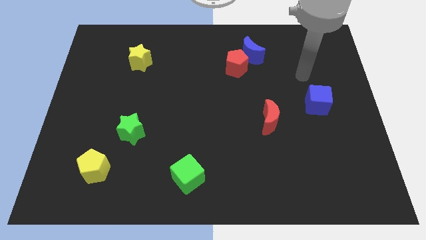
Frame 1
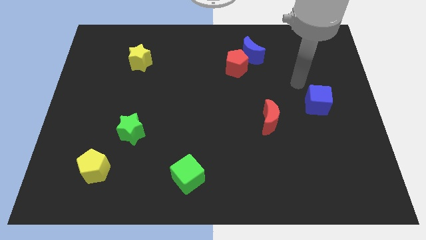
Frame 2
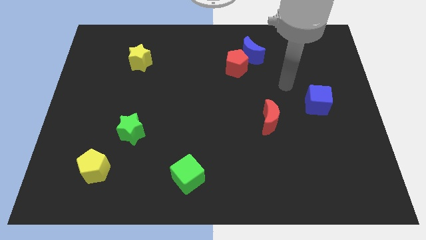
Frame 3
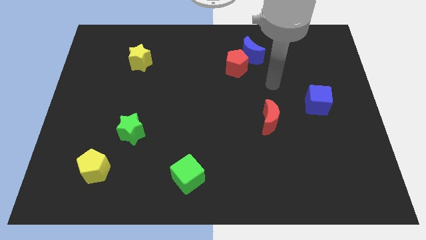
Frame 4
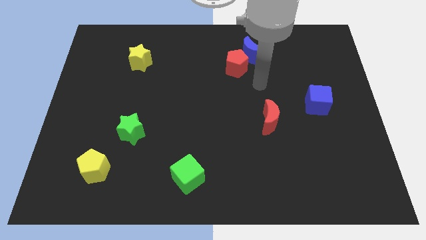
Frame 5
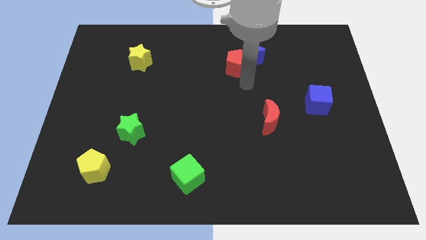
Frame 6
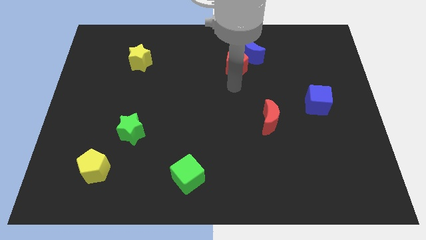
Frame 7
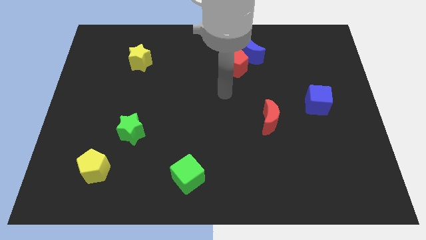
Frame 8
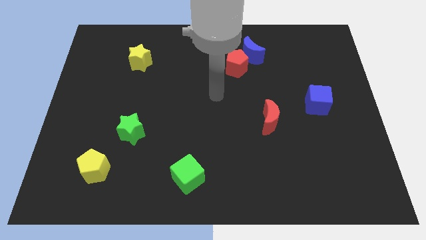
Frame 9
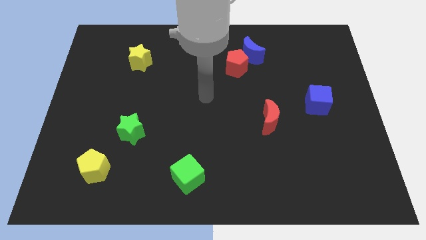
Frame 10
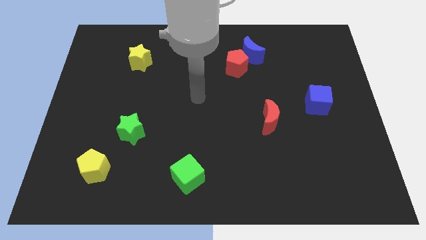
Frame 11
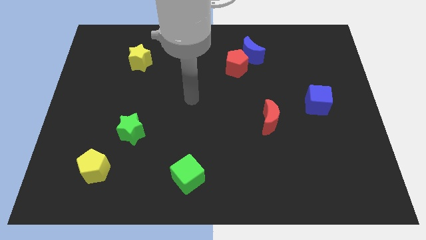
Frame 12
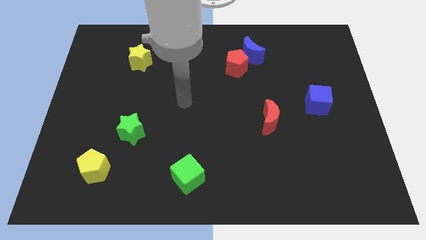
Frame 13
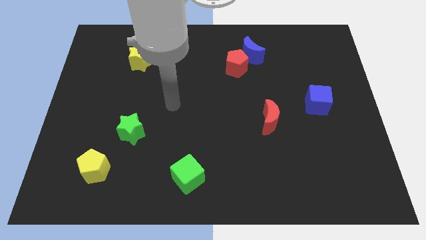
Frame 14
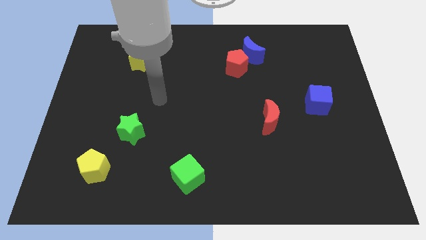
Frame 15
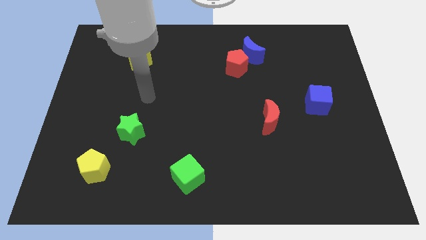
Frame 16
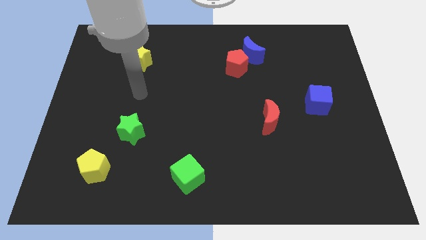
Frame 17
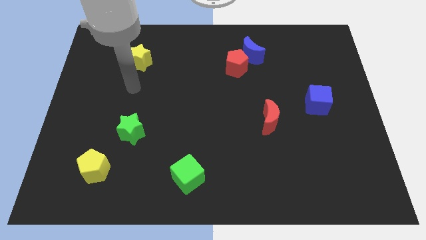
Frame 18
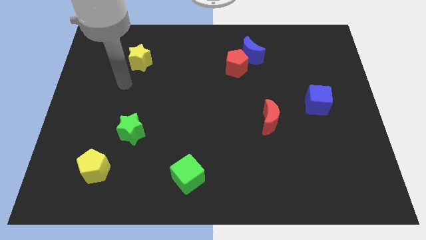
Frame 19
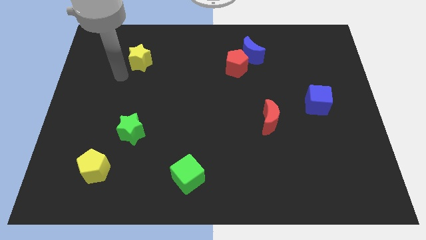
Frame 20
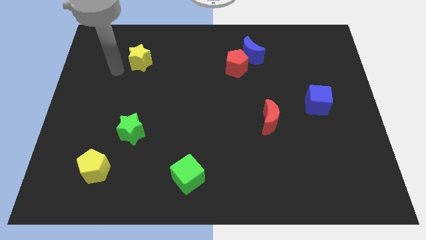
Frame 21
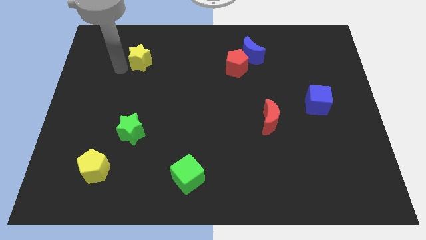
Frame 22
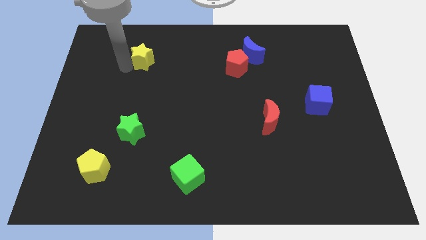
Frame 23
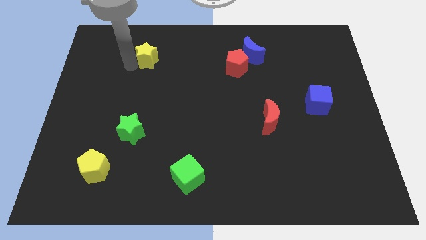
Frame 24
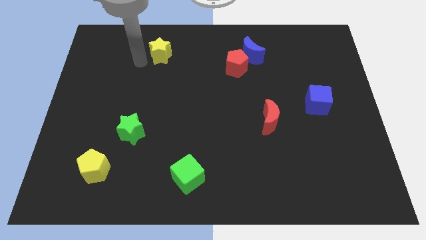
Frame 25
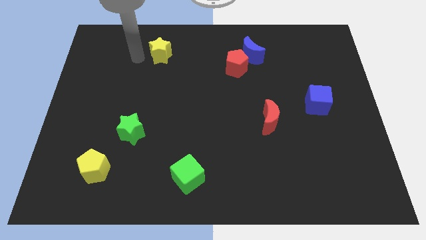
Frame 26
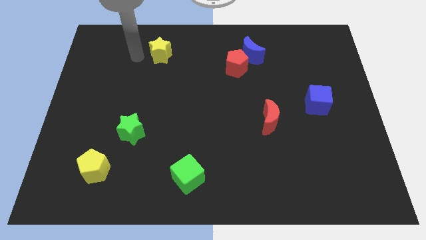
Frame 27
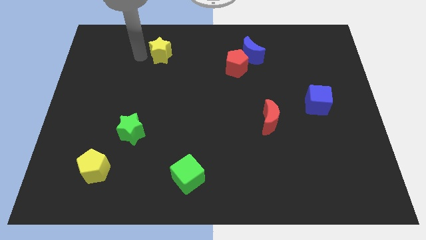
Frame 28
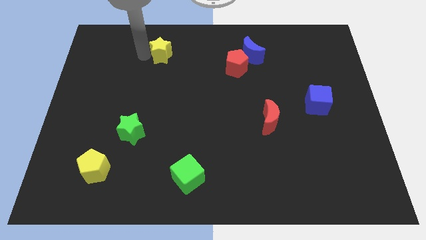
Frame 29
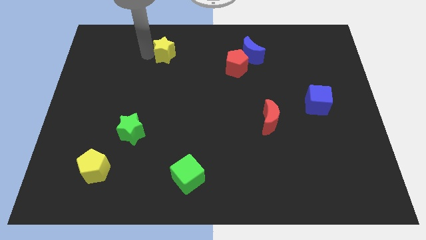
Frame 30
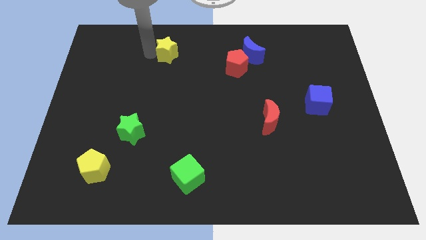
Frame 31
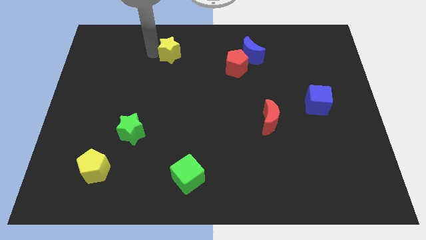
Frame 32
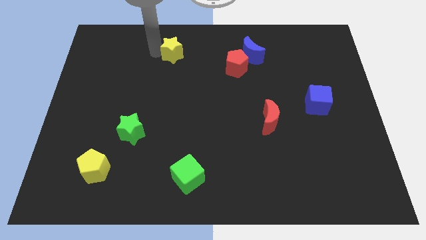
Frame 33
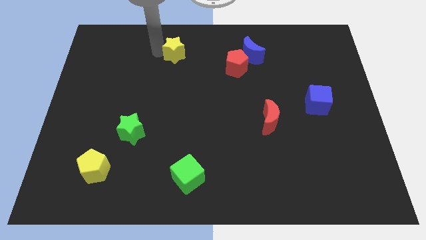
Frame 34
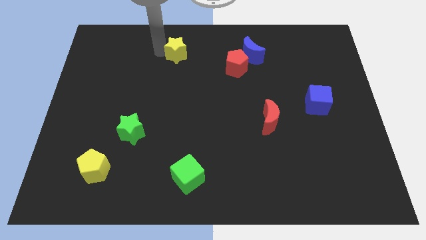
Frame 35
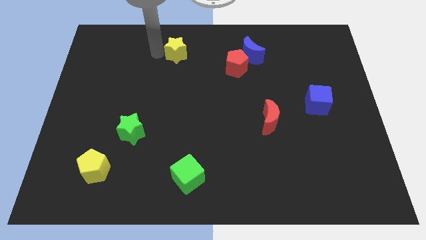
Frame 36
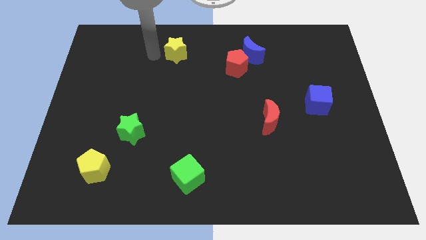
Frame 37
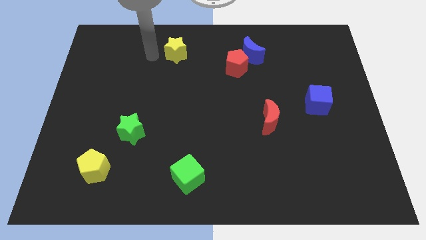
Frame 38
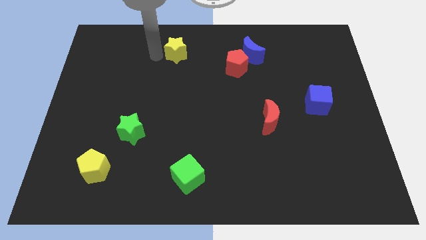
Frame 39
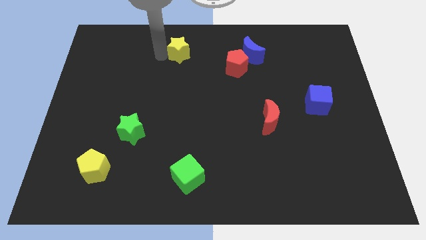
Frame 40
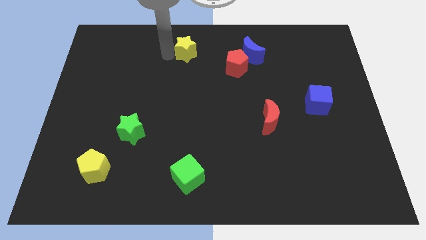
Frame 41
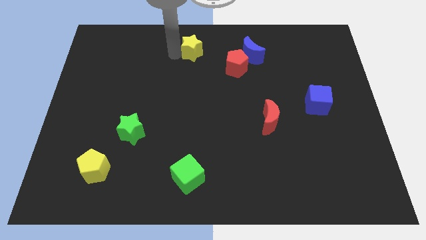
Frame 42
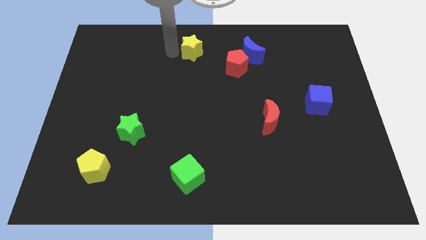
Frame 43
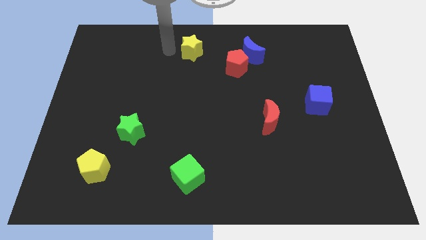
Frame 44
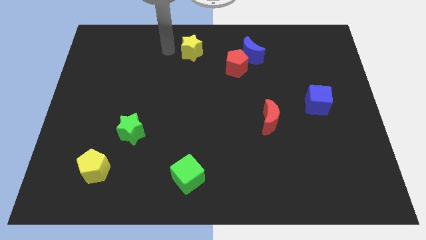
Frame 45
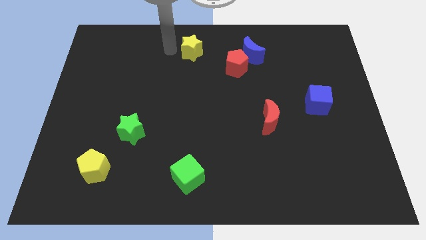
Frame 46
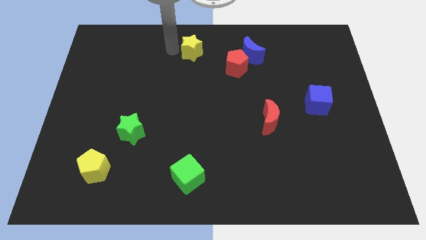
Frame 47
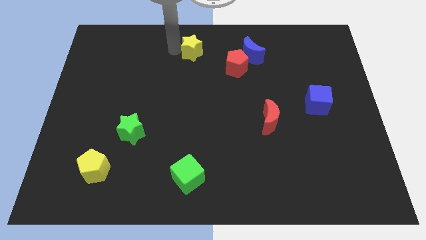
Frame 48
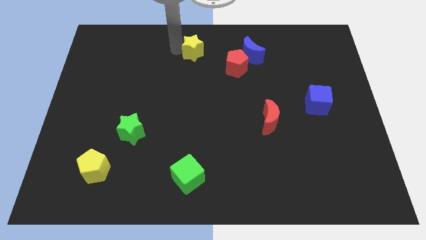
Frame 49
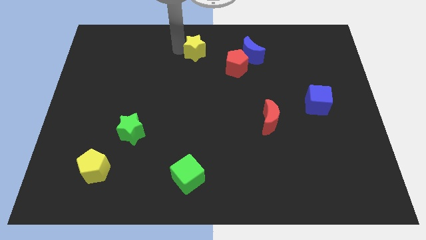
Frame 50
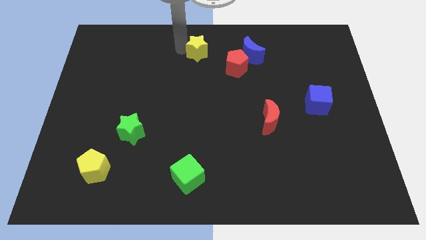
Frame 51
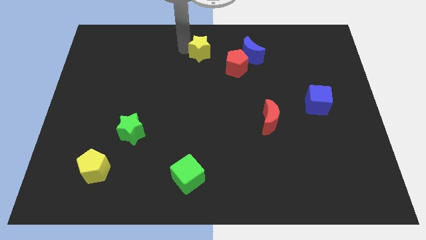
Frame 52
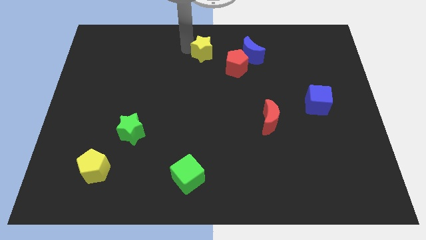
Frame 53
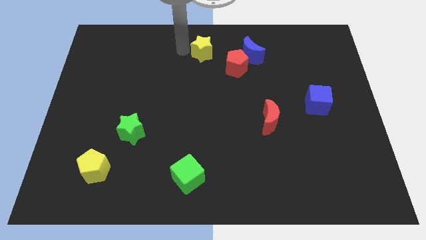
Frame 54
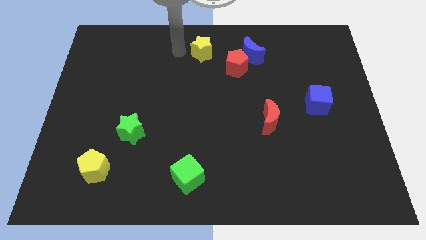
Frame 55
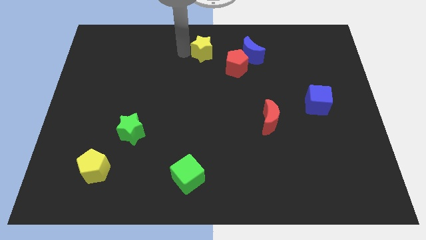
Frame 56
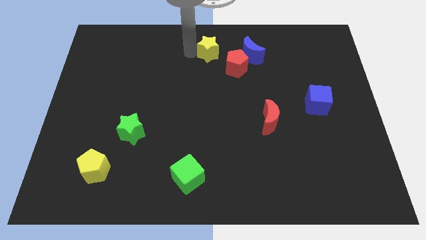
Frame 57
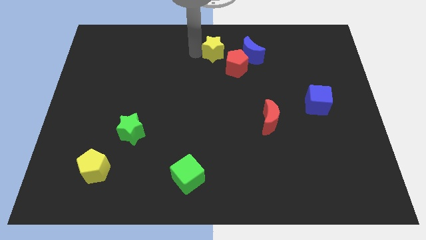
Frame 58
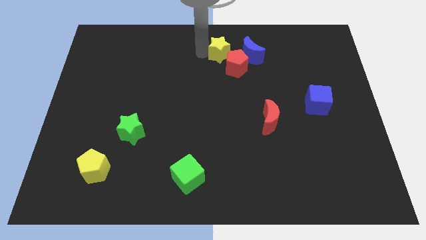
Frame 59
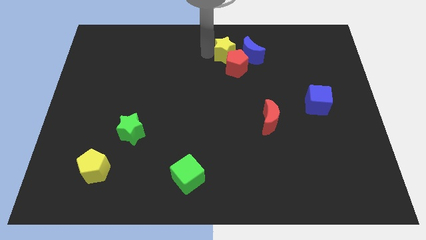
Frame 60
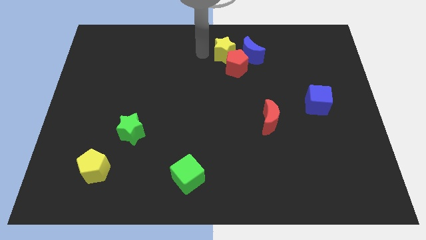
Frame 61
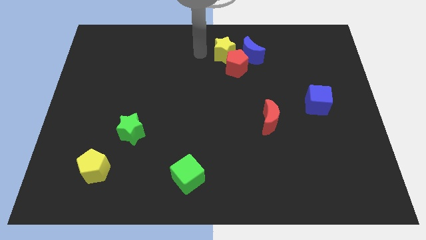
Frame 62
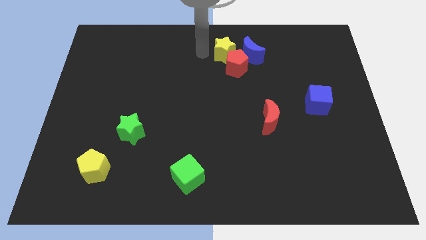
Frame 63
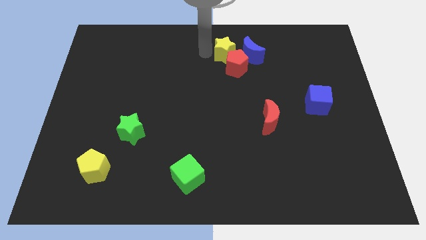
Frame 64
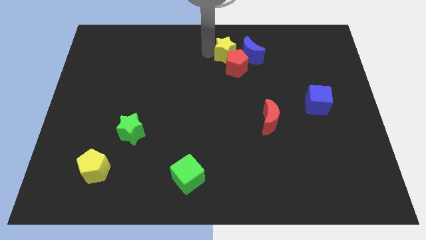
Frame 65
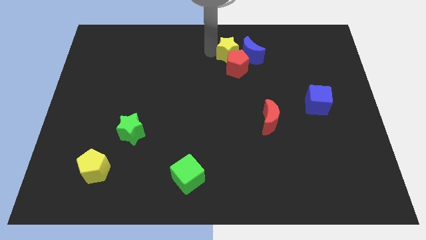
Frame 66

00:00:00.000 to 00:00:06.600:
move the yellow star next to the blue moon
